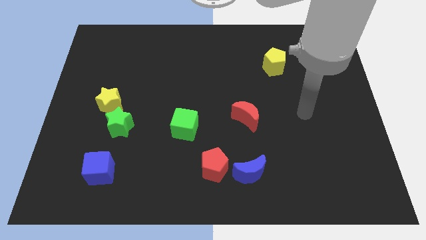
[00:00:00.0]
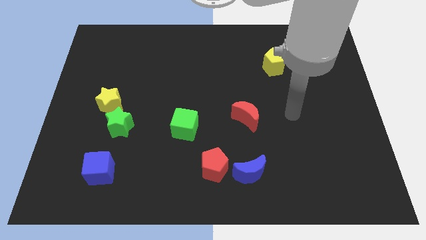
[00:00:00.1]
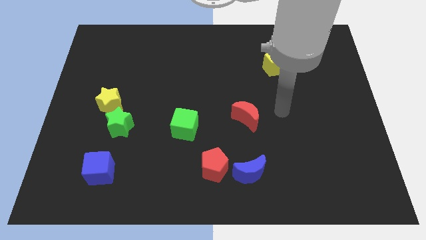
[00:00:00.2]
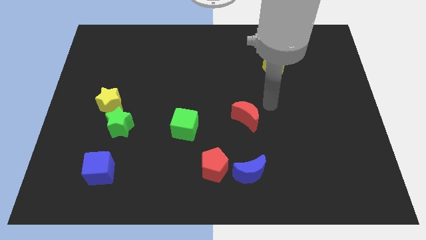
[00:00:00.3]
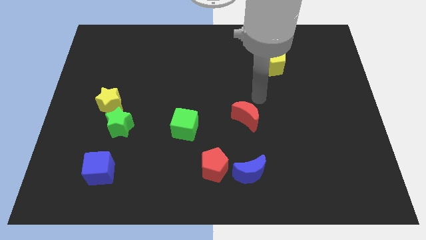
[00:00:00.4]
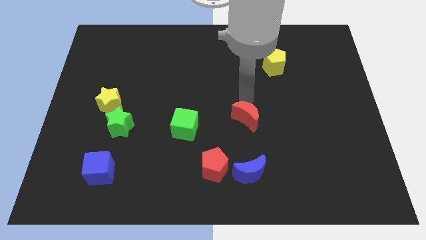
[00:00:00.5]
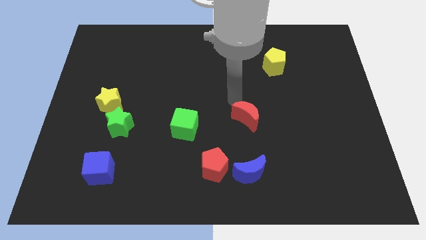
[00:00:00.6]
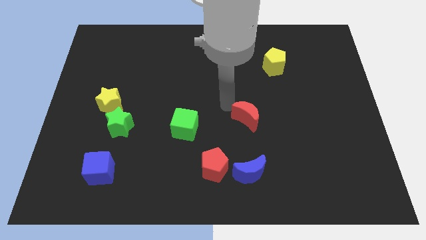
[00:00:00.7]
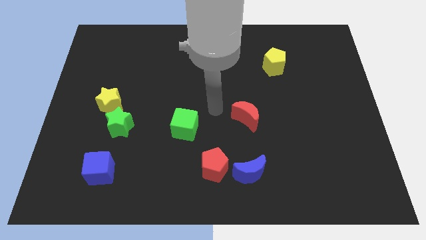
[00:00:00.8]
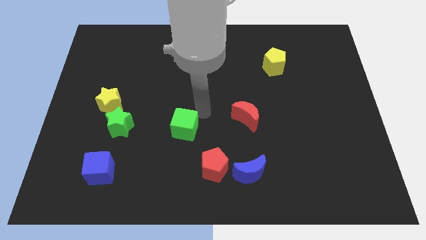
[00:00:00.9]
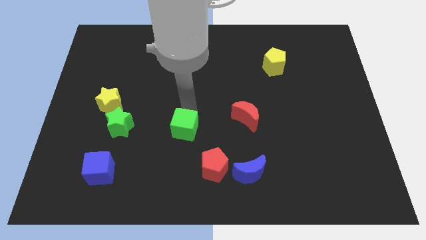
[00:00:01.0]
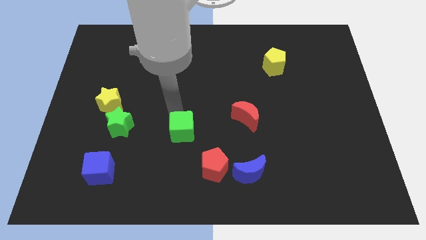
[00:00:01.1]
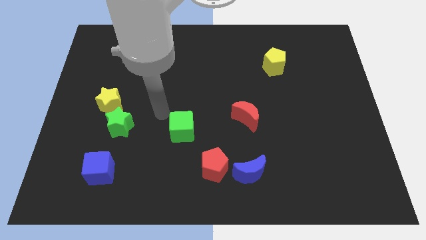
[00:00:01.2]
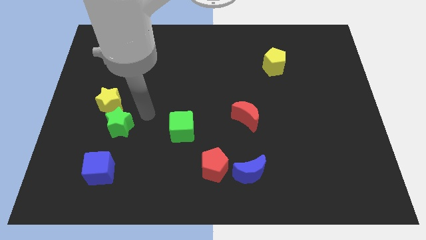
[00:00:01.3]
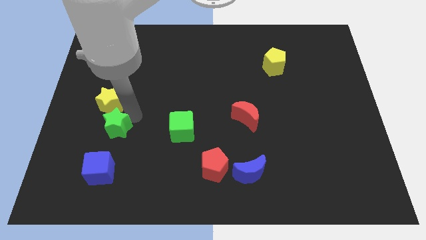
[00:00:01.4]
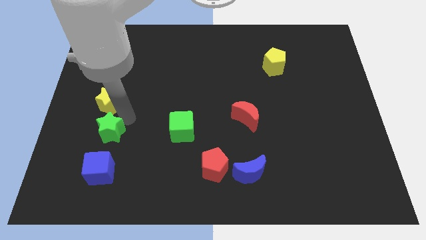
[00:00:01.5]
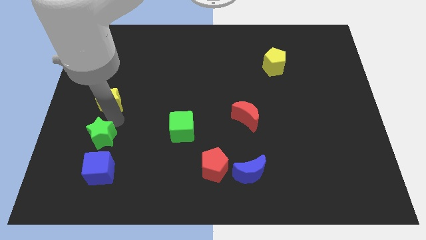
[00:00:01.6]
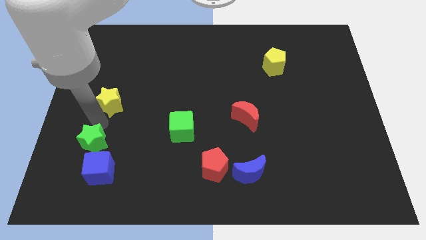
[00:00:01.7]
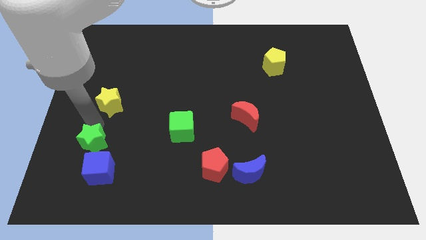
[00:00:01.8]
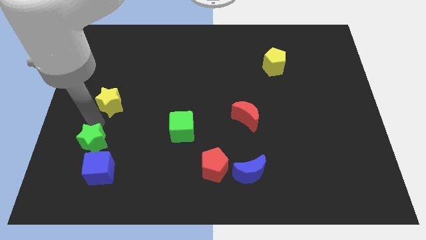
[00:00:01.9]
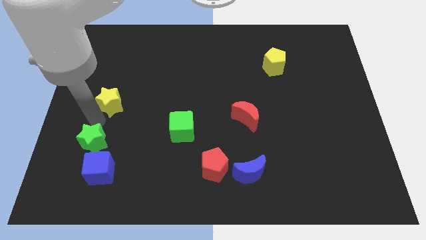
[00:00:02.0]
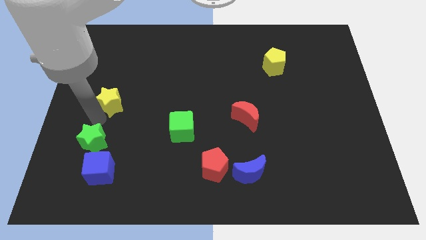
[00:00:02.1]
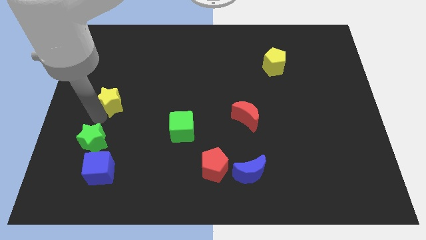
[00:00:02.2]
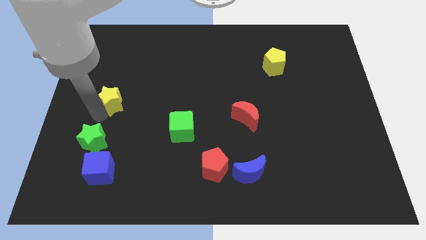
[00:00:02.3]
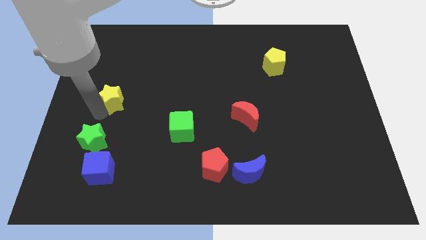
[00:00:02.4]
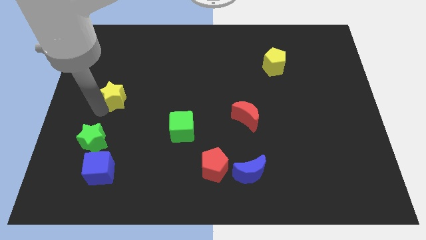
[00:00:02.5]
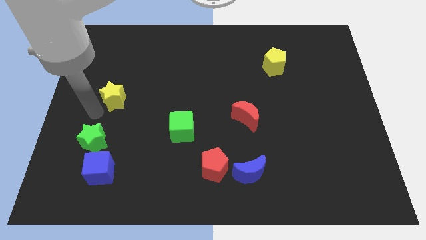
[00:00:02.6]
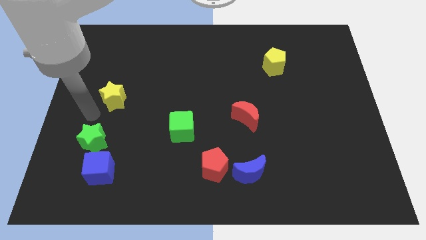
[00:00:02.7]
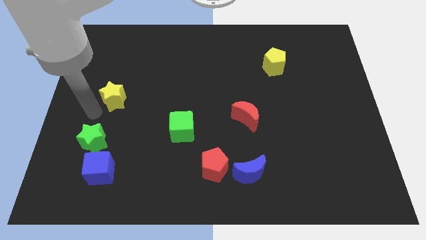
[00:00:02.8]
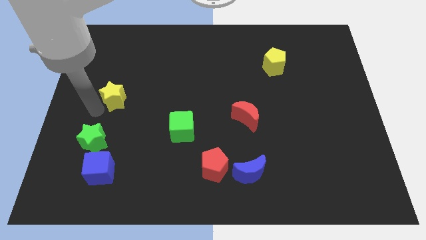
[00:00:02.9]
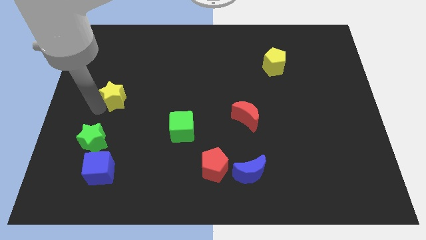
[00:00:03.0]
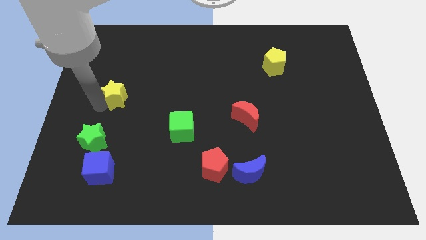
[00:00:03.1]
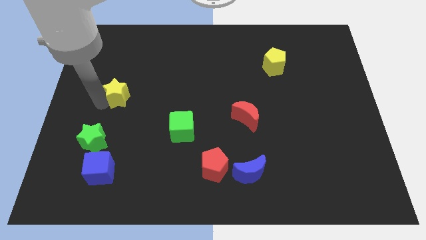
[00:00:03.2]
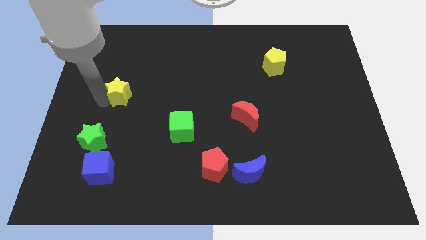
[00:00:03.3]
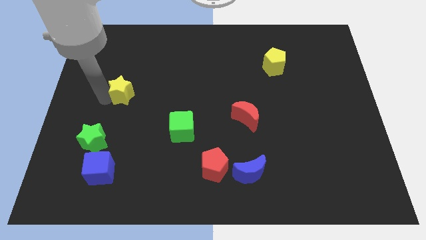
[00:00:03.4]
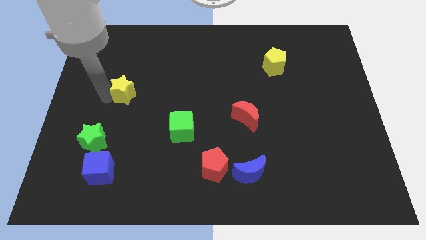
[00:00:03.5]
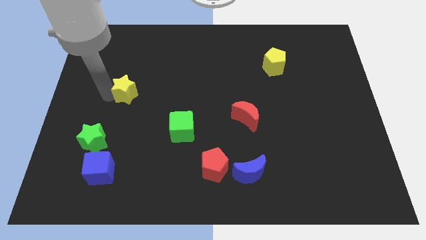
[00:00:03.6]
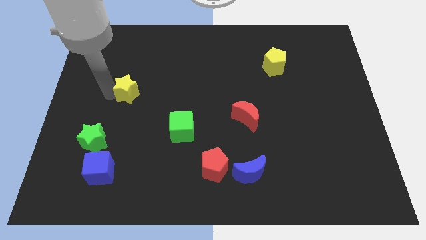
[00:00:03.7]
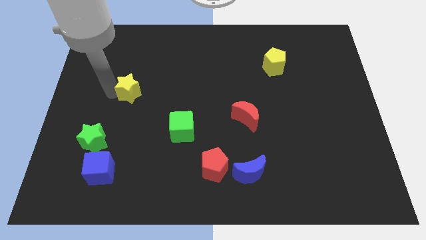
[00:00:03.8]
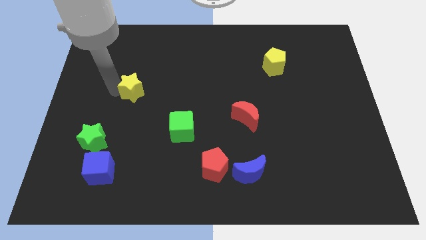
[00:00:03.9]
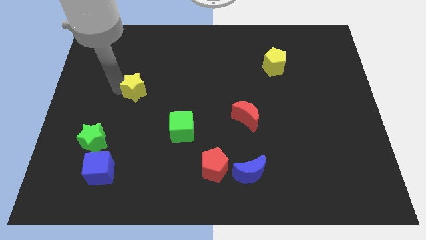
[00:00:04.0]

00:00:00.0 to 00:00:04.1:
push the yellow star somewhat diagonally upwards and right

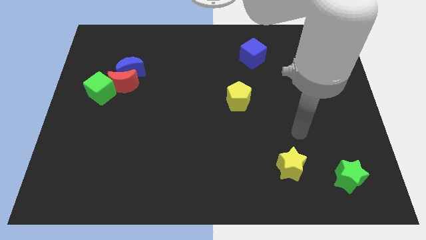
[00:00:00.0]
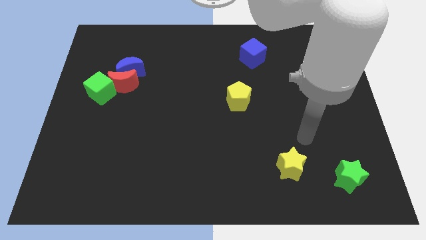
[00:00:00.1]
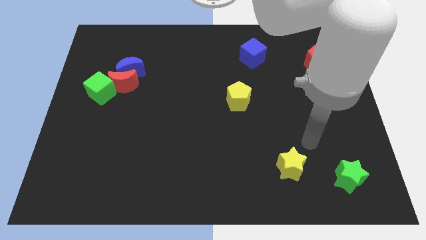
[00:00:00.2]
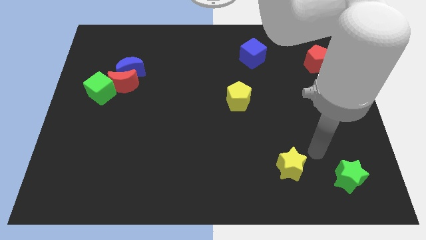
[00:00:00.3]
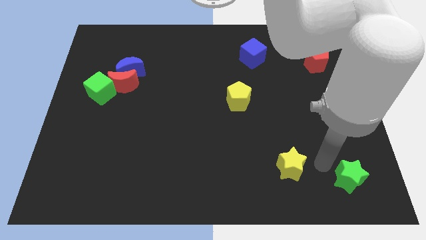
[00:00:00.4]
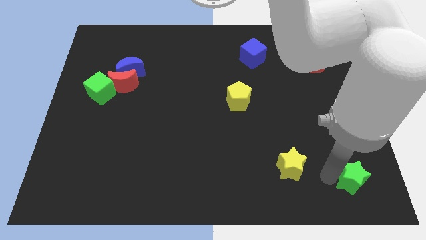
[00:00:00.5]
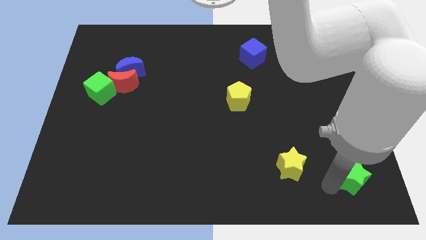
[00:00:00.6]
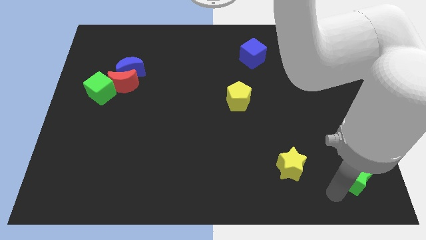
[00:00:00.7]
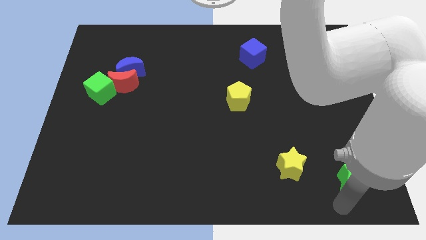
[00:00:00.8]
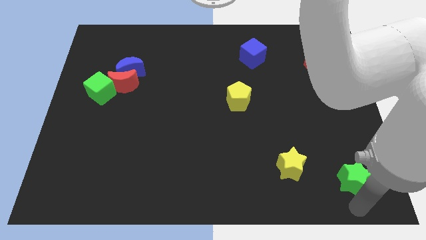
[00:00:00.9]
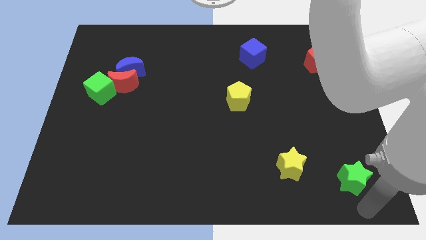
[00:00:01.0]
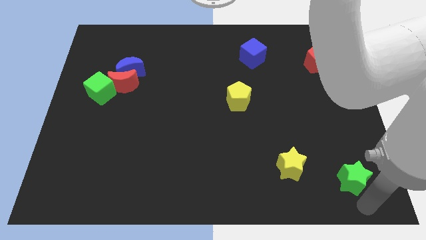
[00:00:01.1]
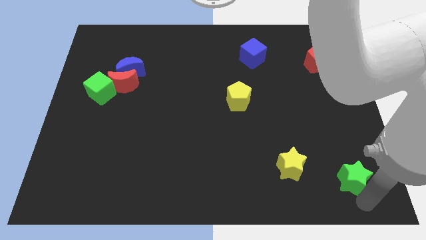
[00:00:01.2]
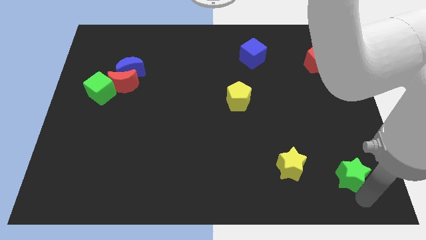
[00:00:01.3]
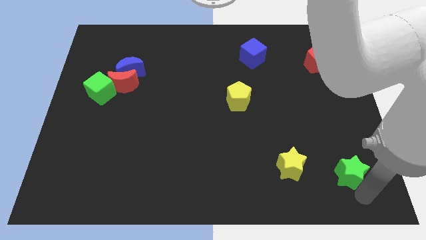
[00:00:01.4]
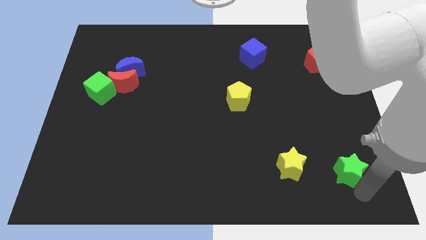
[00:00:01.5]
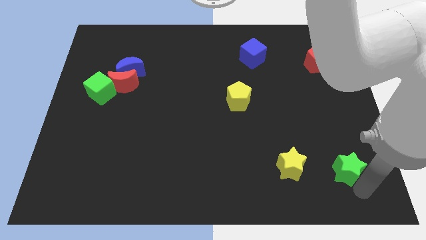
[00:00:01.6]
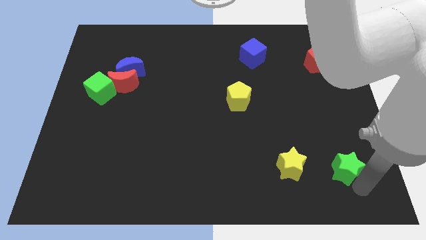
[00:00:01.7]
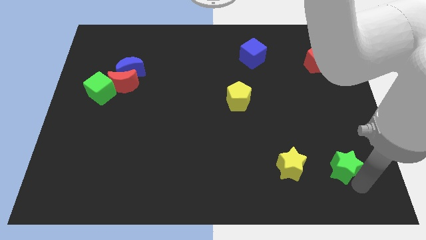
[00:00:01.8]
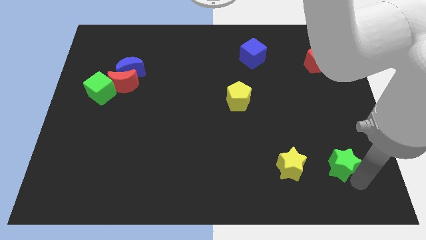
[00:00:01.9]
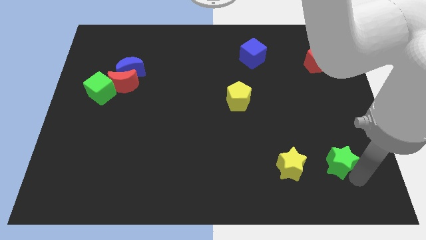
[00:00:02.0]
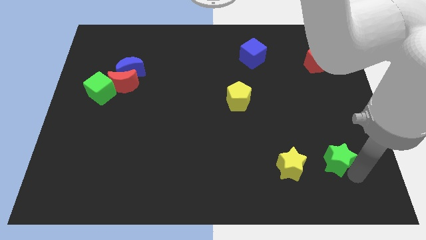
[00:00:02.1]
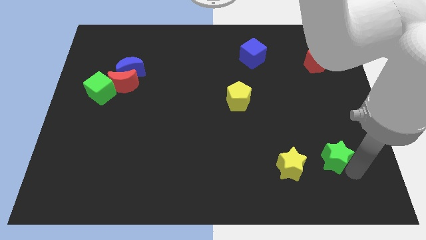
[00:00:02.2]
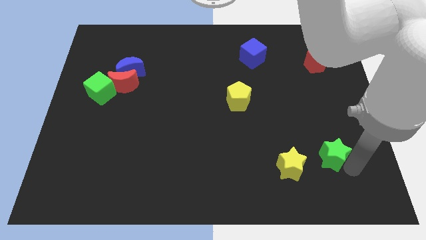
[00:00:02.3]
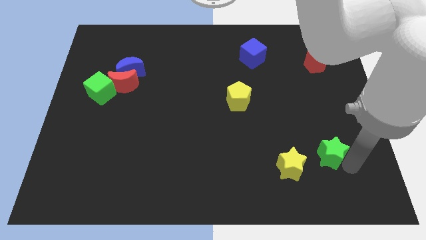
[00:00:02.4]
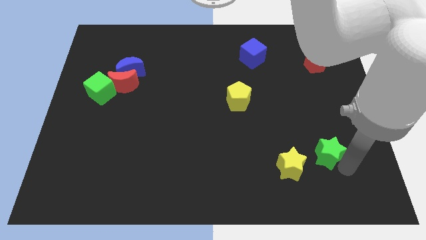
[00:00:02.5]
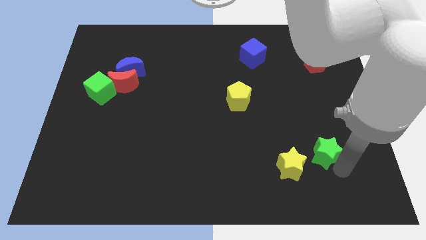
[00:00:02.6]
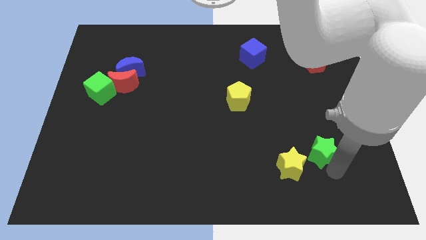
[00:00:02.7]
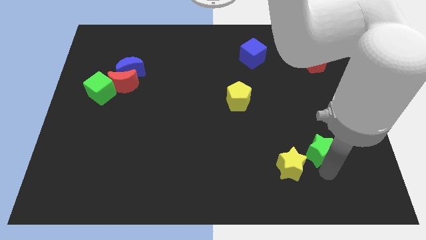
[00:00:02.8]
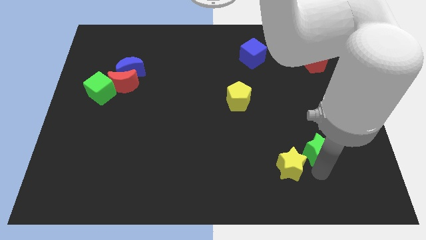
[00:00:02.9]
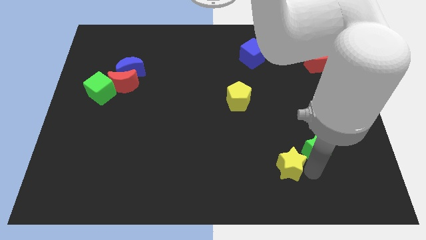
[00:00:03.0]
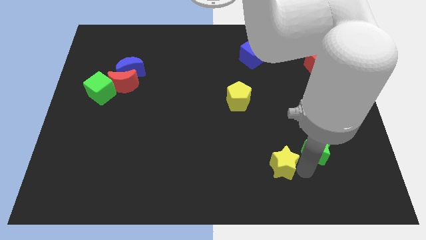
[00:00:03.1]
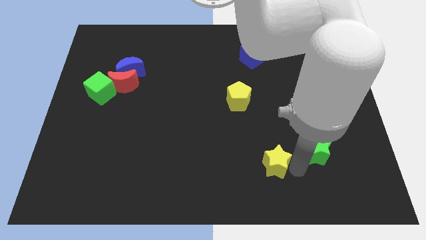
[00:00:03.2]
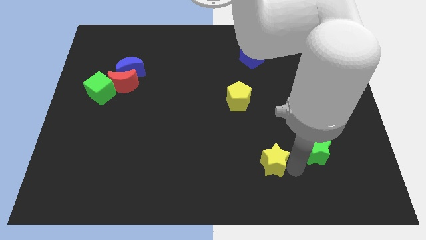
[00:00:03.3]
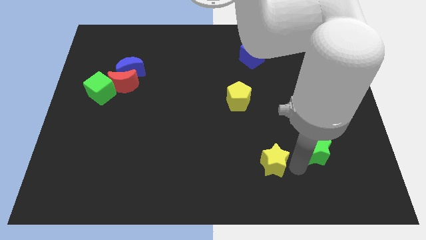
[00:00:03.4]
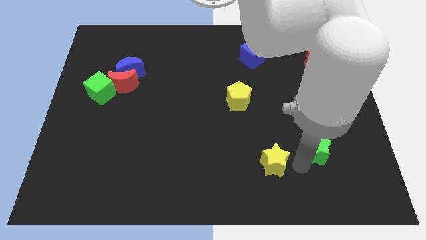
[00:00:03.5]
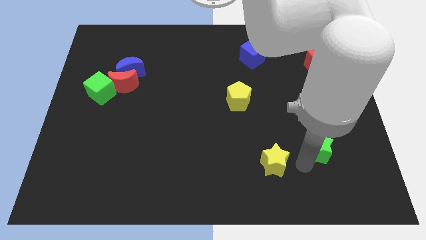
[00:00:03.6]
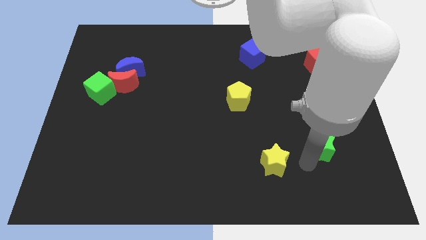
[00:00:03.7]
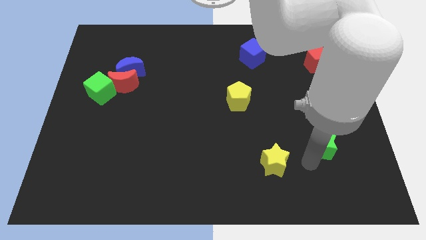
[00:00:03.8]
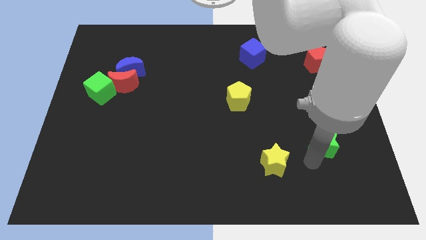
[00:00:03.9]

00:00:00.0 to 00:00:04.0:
slightly move the green star upwards
